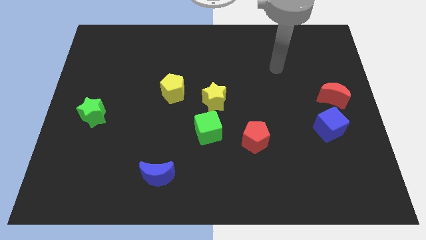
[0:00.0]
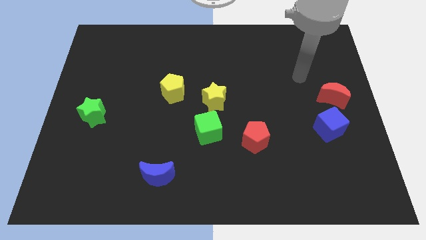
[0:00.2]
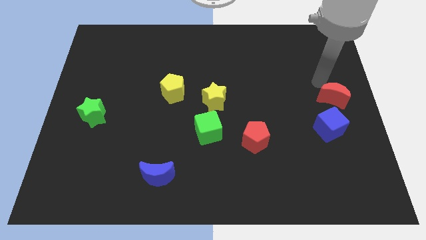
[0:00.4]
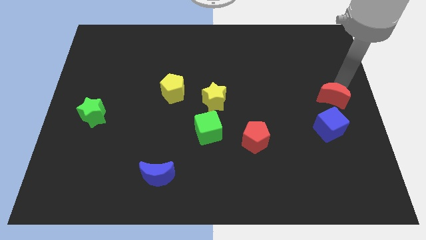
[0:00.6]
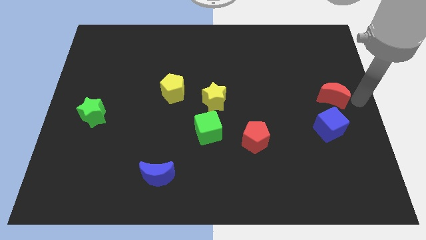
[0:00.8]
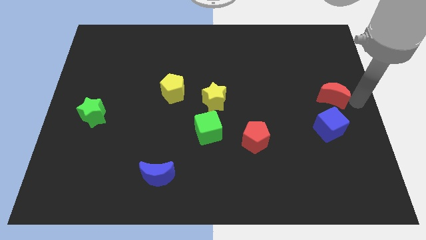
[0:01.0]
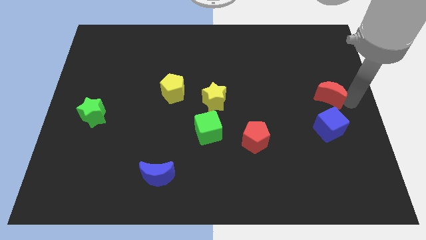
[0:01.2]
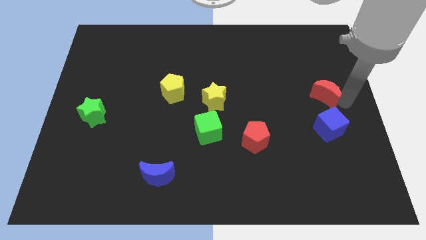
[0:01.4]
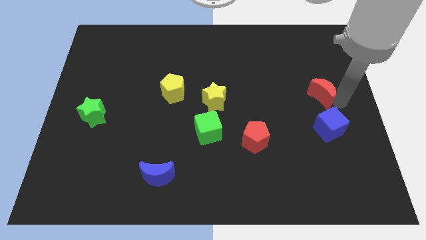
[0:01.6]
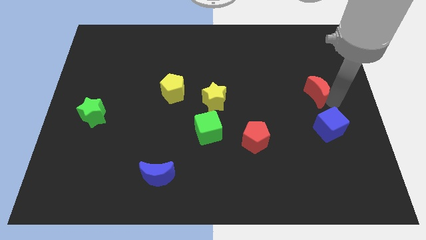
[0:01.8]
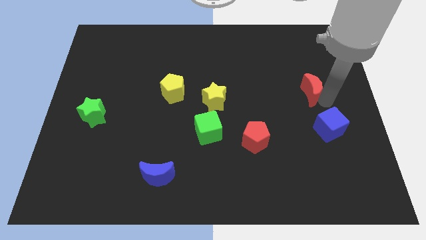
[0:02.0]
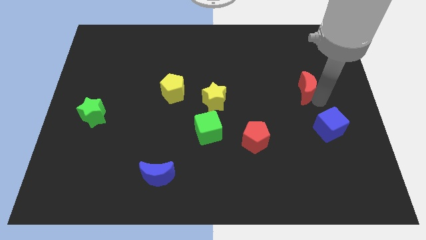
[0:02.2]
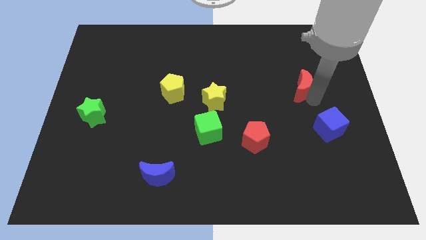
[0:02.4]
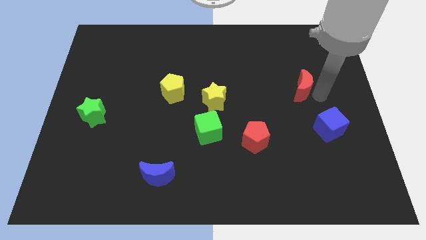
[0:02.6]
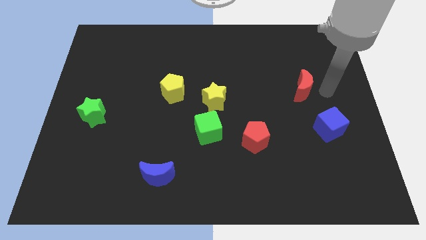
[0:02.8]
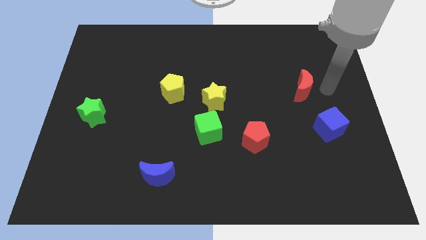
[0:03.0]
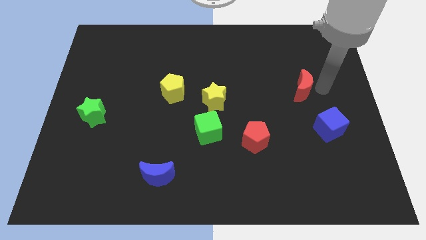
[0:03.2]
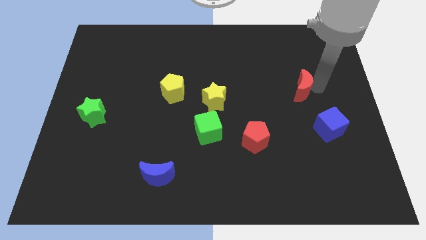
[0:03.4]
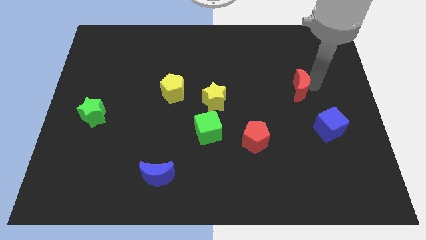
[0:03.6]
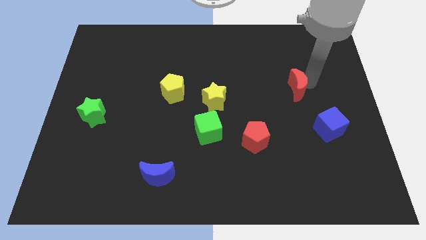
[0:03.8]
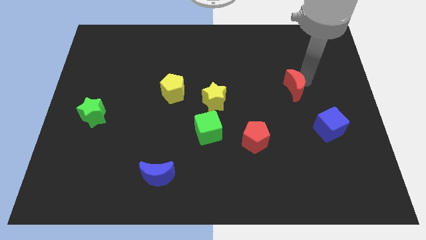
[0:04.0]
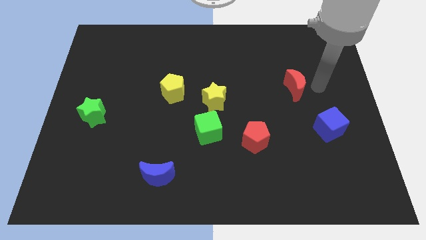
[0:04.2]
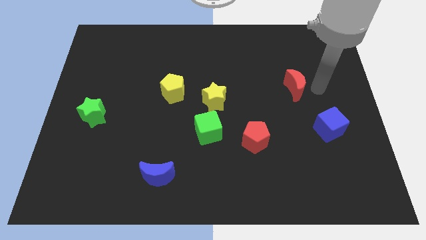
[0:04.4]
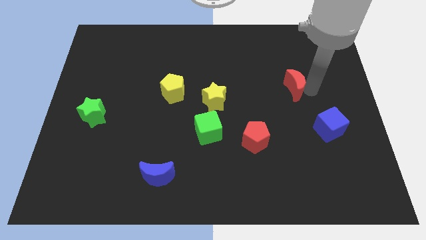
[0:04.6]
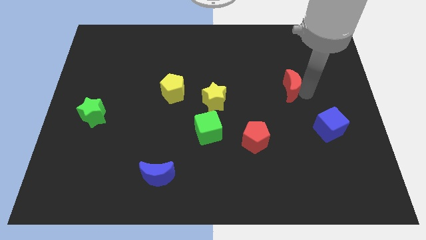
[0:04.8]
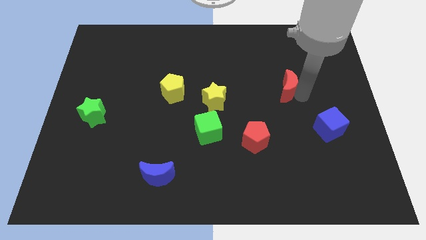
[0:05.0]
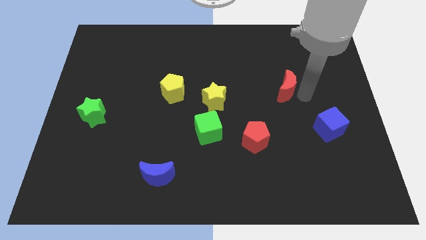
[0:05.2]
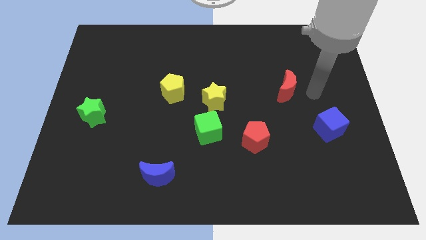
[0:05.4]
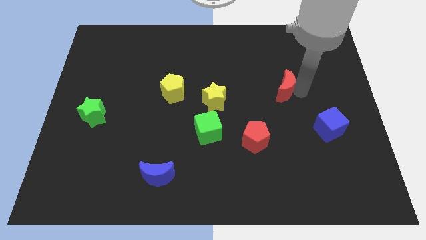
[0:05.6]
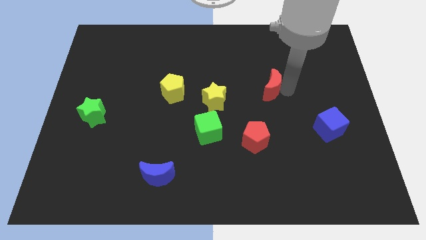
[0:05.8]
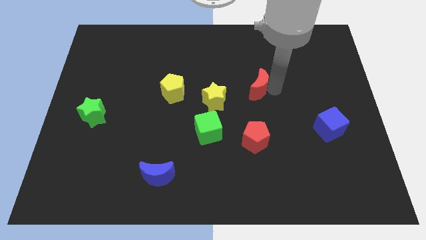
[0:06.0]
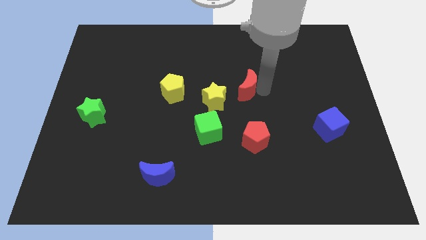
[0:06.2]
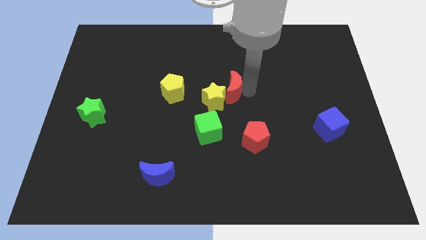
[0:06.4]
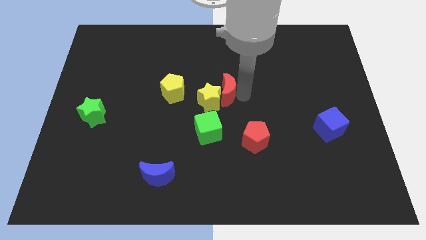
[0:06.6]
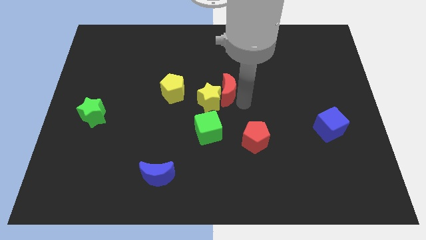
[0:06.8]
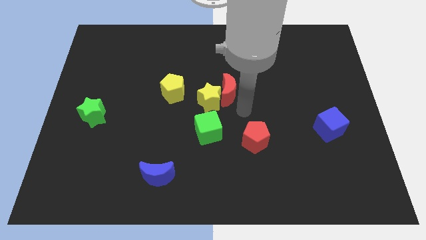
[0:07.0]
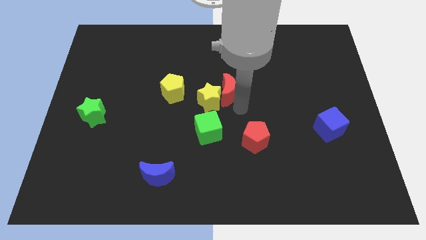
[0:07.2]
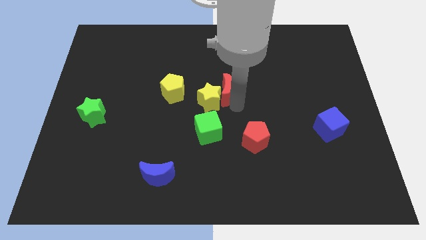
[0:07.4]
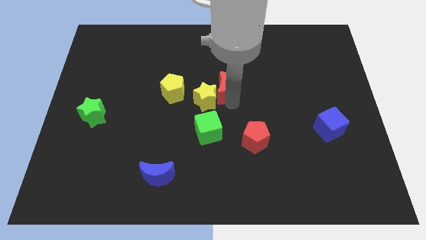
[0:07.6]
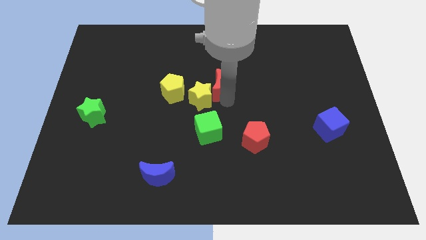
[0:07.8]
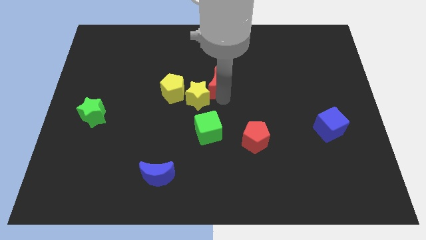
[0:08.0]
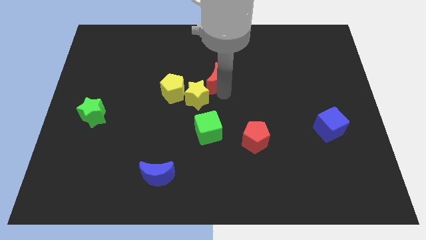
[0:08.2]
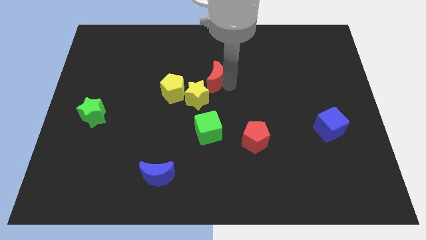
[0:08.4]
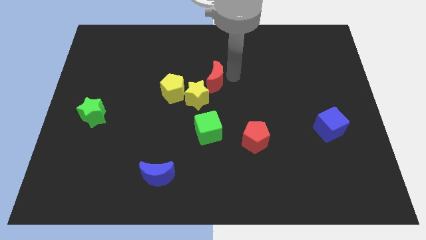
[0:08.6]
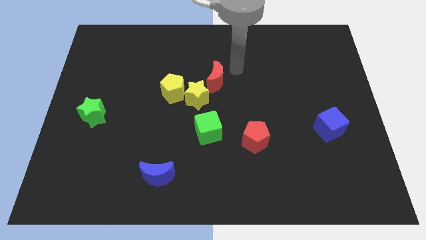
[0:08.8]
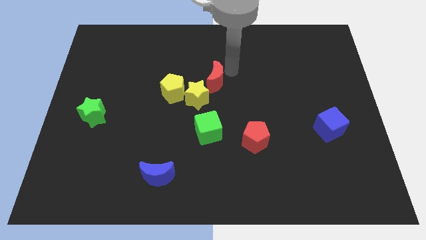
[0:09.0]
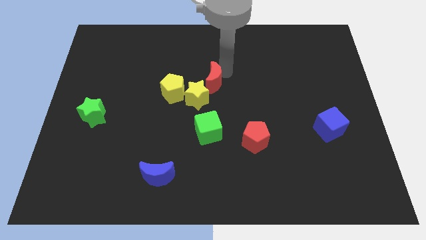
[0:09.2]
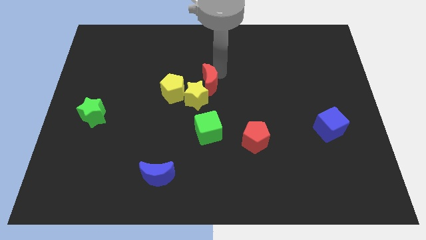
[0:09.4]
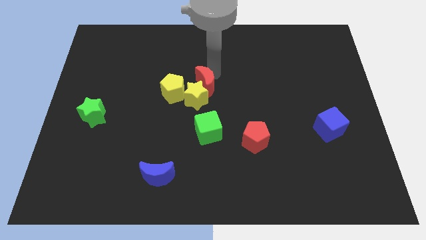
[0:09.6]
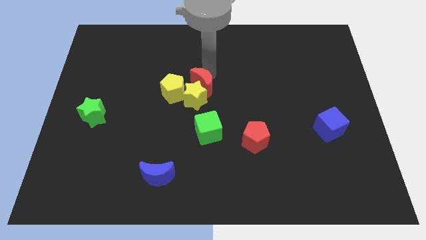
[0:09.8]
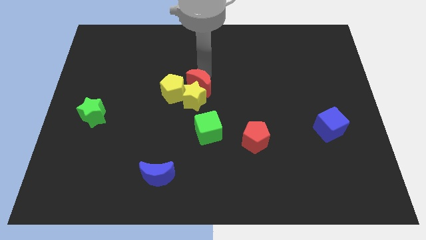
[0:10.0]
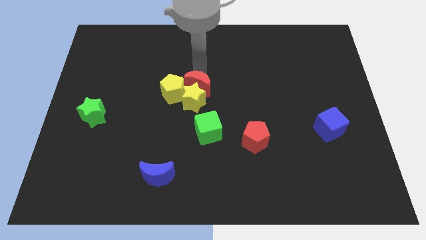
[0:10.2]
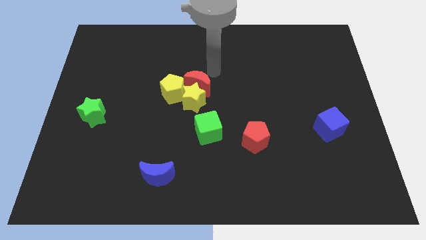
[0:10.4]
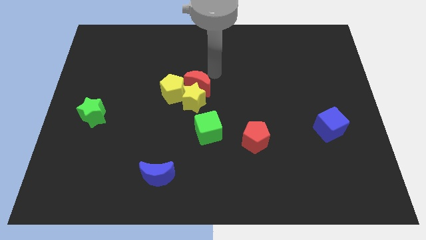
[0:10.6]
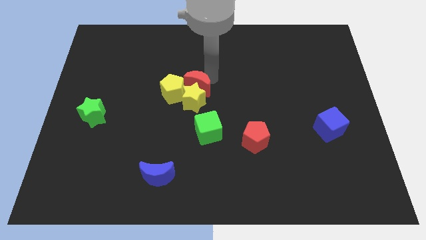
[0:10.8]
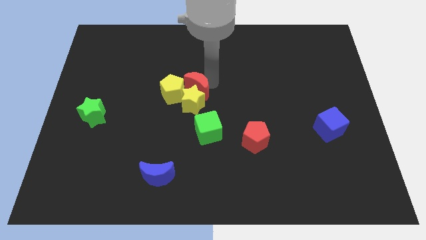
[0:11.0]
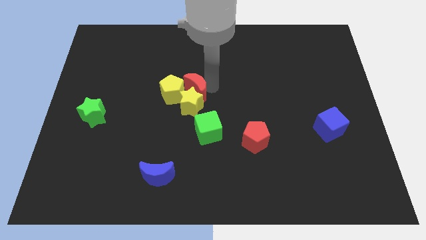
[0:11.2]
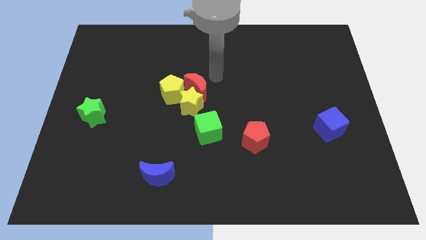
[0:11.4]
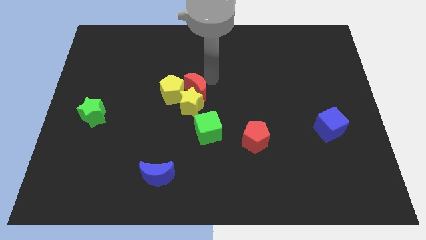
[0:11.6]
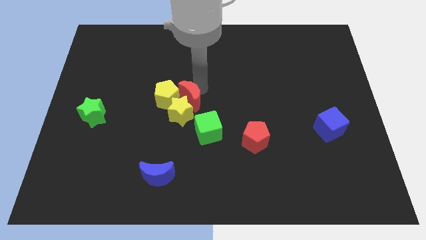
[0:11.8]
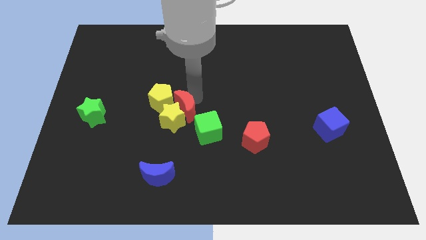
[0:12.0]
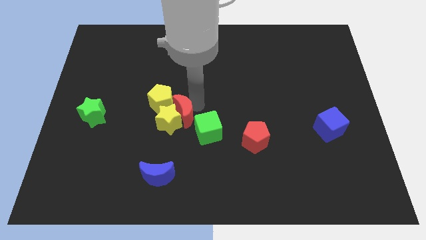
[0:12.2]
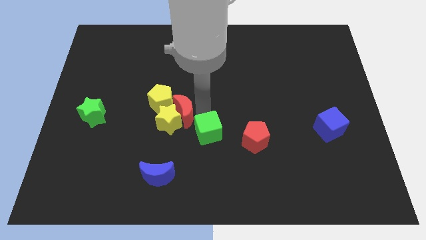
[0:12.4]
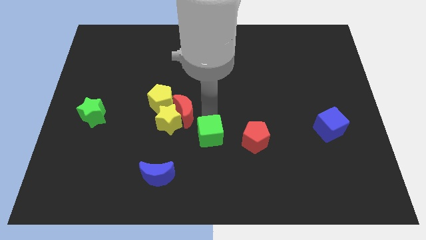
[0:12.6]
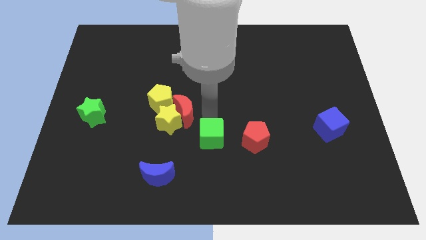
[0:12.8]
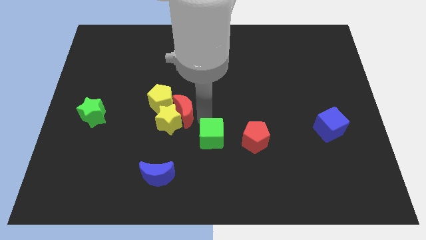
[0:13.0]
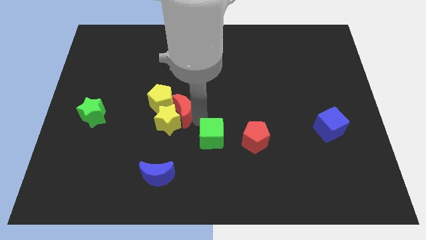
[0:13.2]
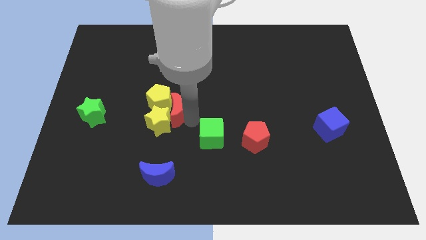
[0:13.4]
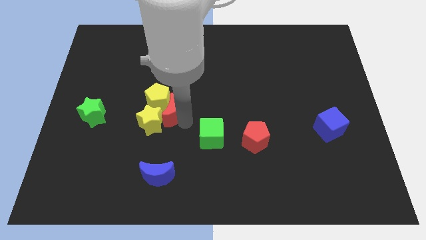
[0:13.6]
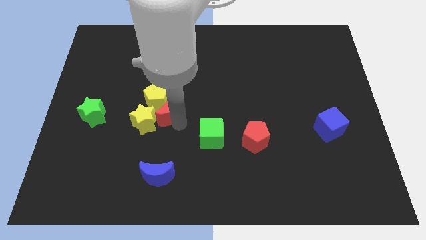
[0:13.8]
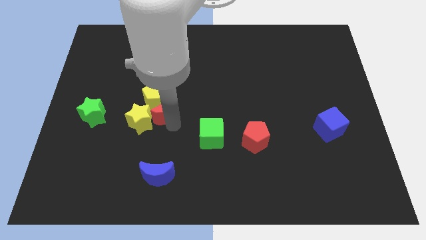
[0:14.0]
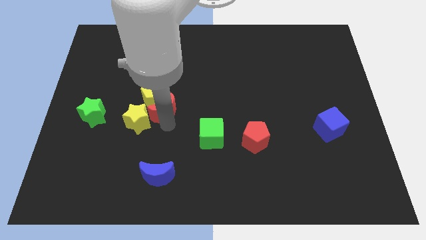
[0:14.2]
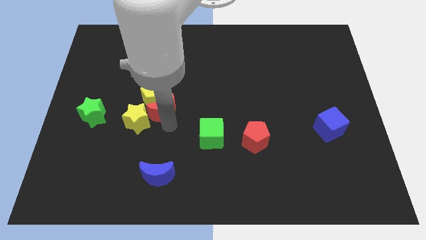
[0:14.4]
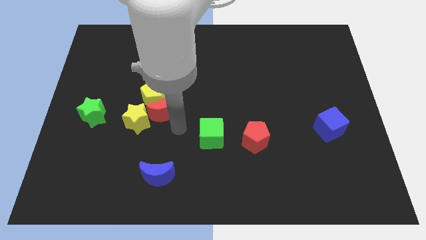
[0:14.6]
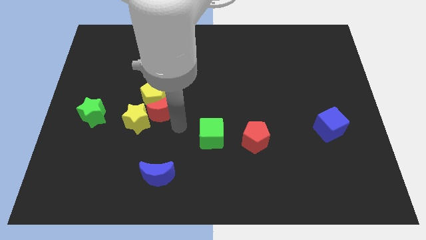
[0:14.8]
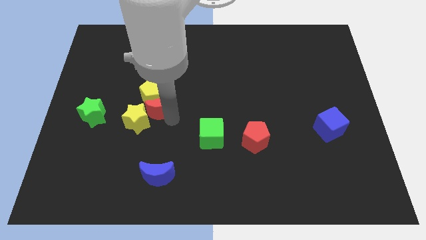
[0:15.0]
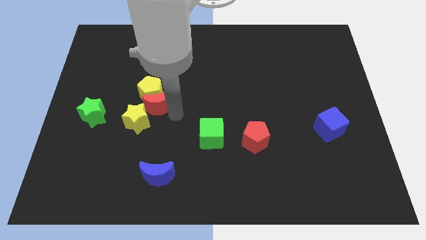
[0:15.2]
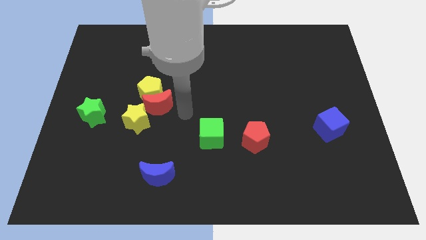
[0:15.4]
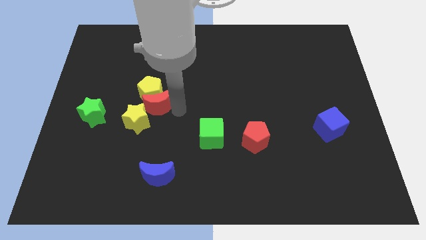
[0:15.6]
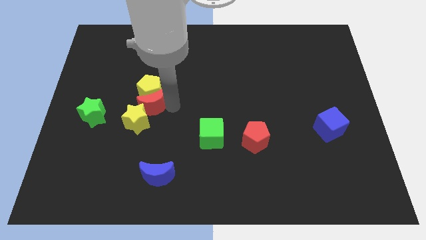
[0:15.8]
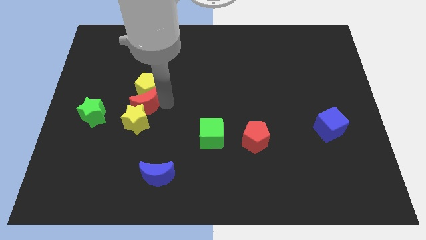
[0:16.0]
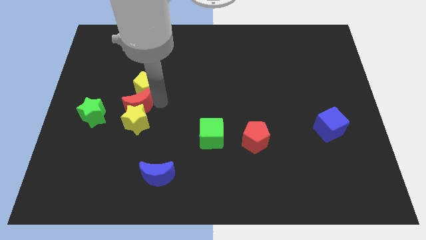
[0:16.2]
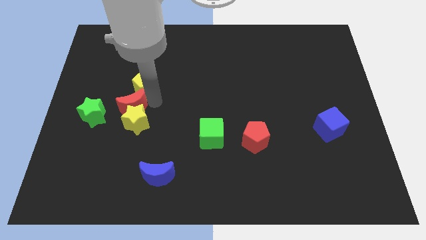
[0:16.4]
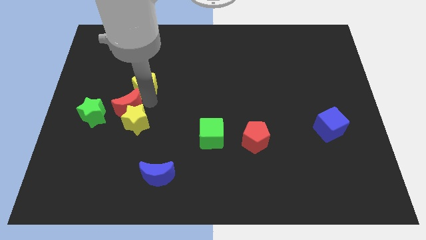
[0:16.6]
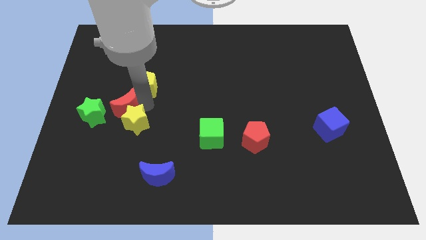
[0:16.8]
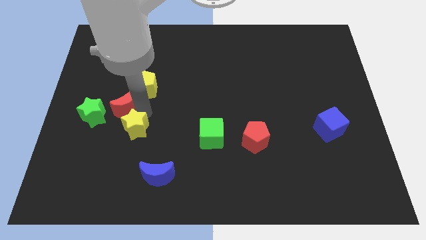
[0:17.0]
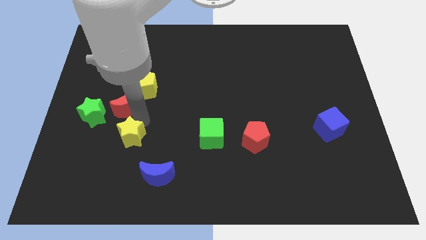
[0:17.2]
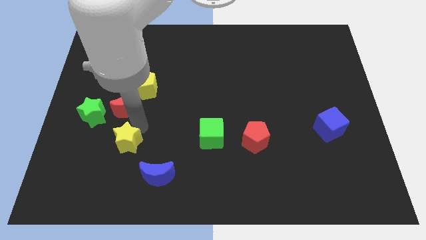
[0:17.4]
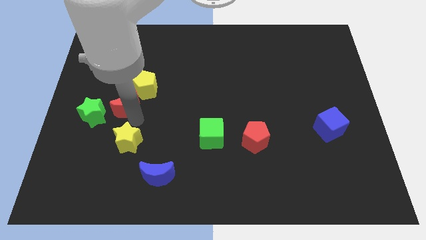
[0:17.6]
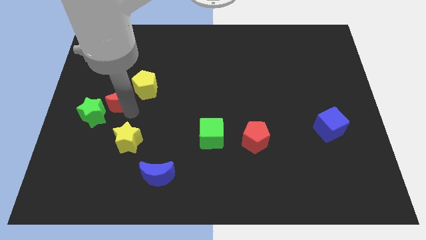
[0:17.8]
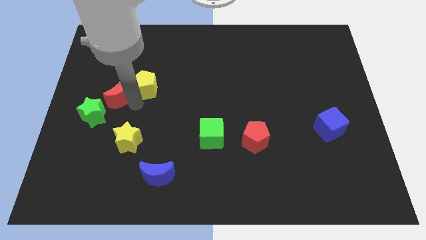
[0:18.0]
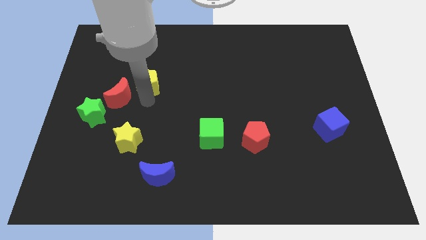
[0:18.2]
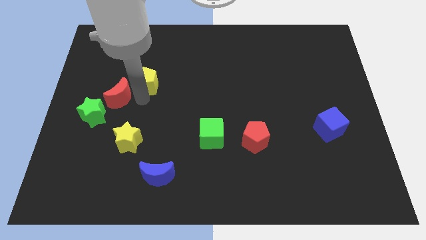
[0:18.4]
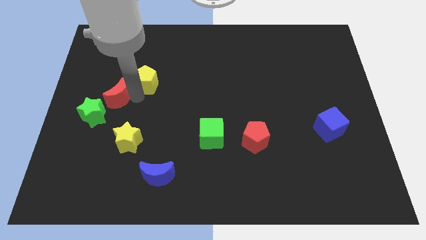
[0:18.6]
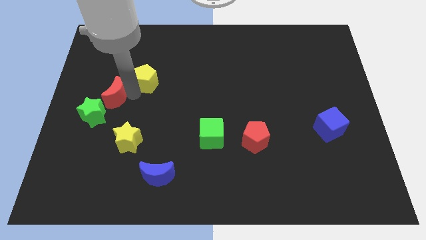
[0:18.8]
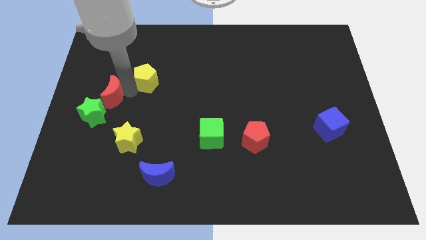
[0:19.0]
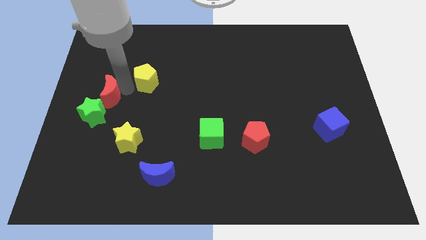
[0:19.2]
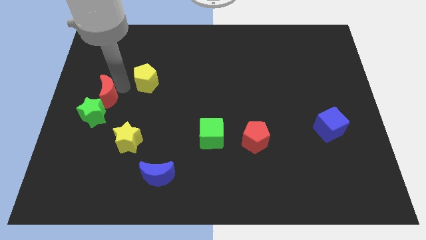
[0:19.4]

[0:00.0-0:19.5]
push the red moon to the center left
